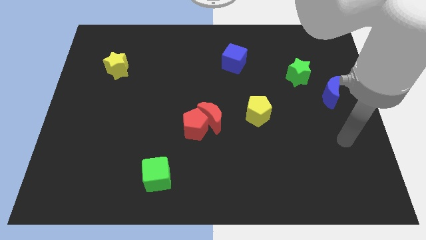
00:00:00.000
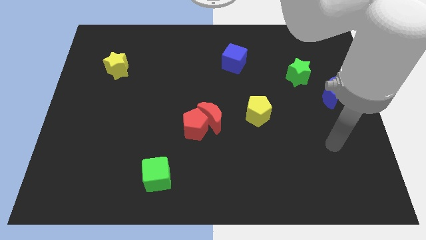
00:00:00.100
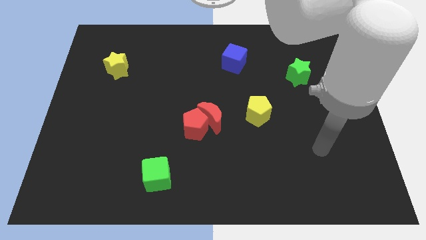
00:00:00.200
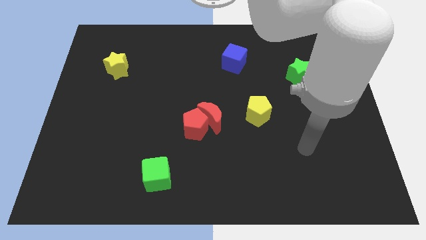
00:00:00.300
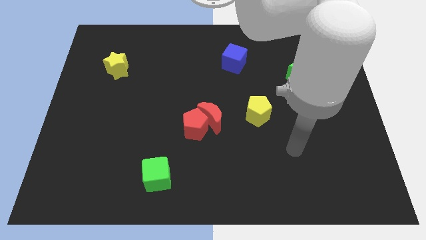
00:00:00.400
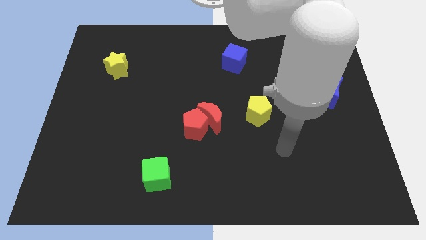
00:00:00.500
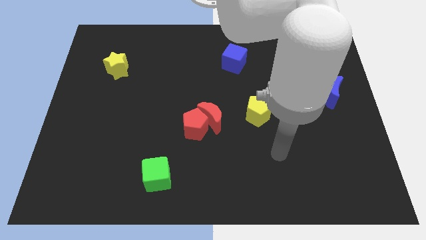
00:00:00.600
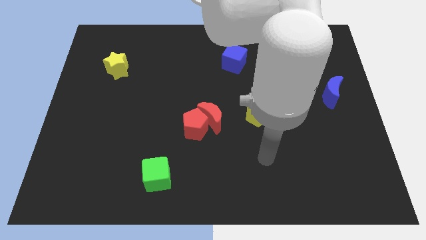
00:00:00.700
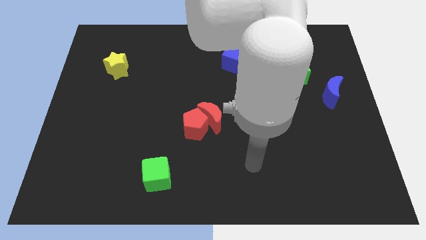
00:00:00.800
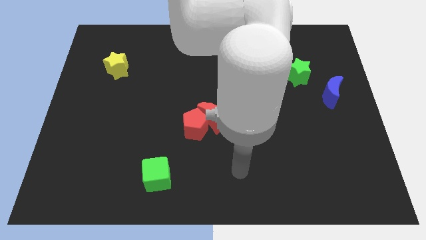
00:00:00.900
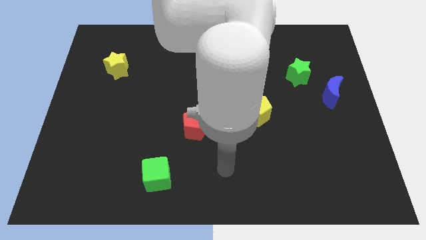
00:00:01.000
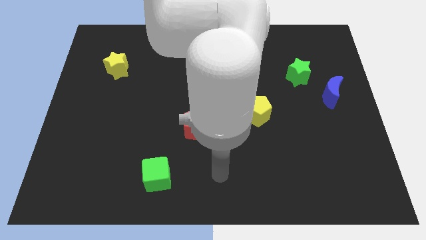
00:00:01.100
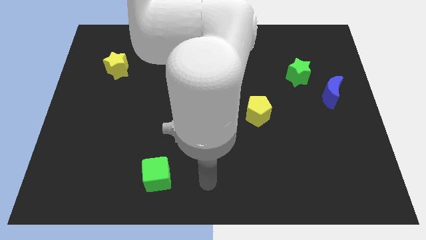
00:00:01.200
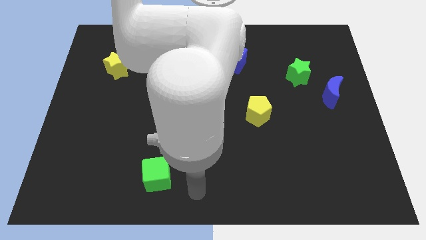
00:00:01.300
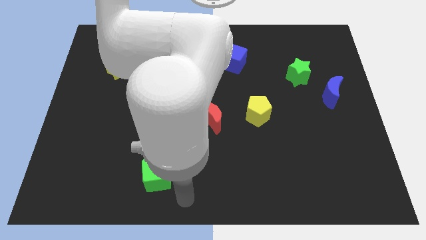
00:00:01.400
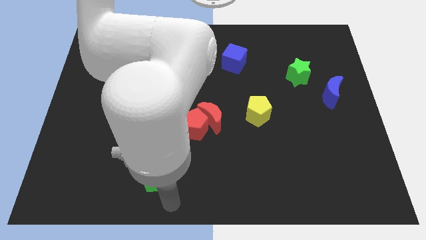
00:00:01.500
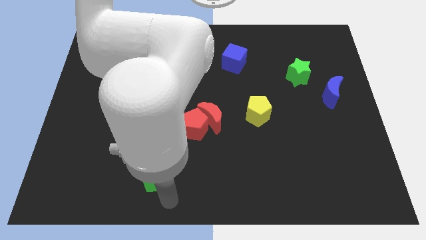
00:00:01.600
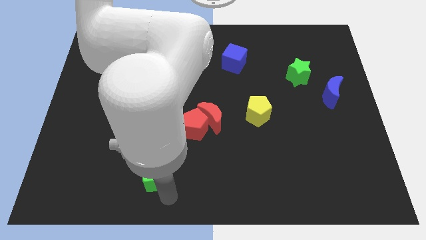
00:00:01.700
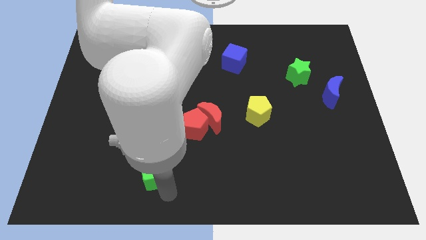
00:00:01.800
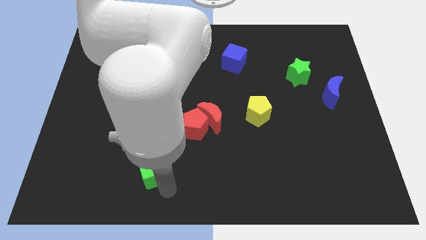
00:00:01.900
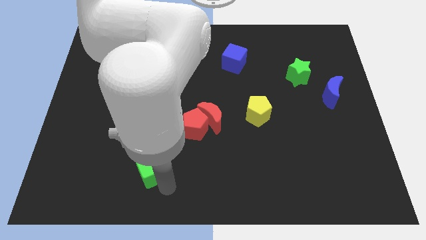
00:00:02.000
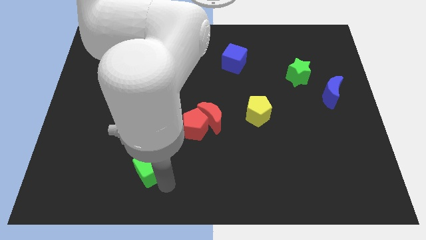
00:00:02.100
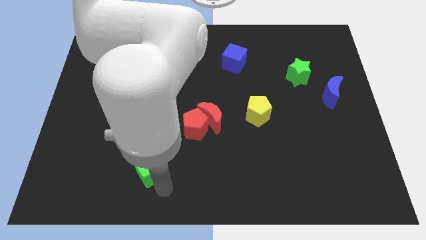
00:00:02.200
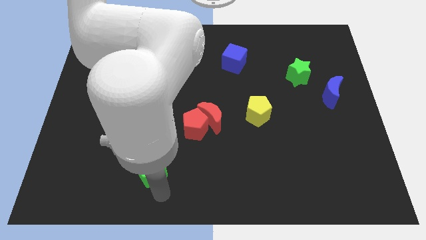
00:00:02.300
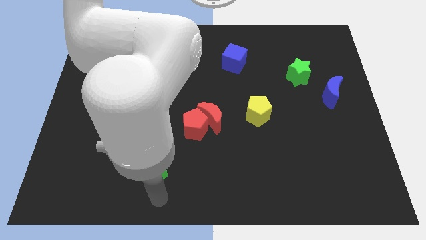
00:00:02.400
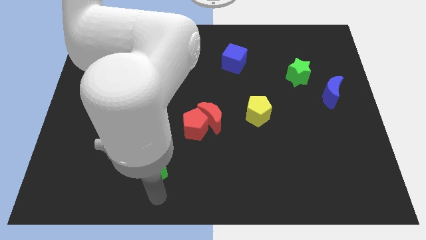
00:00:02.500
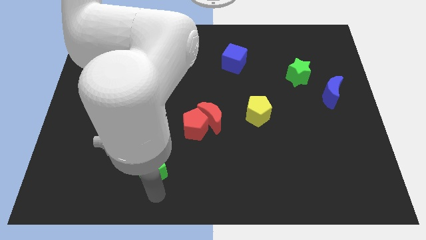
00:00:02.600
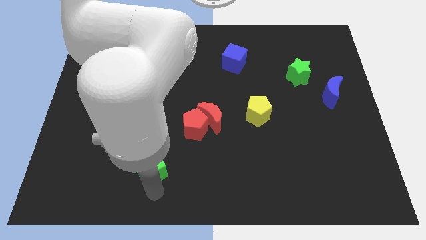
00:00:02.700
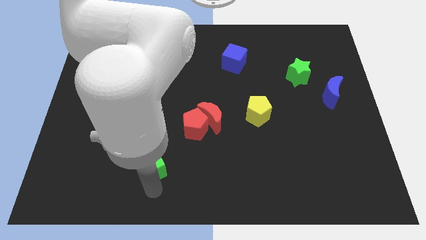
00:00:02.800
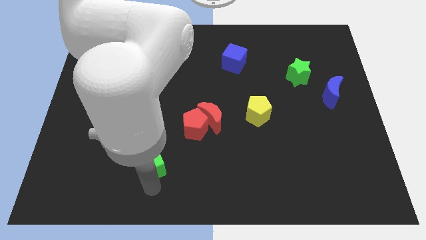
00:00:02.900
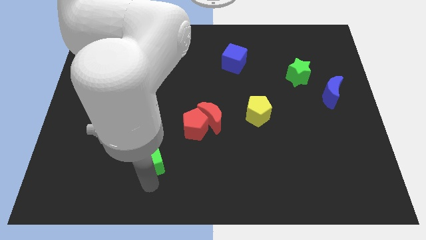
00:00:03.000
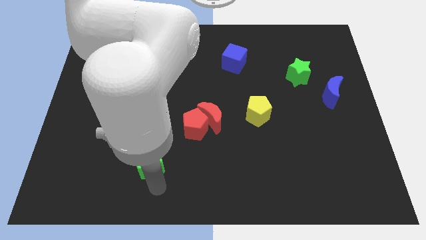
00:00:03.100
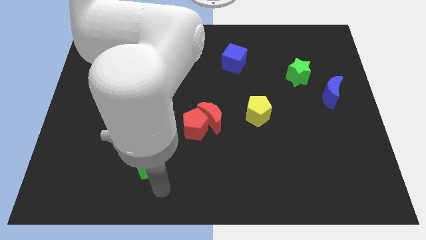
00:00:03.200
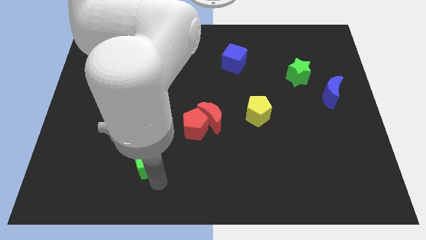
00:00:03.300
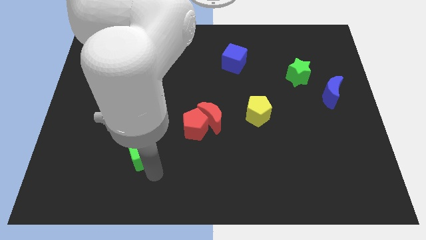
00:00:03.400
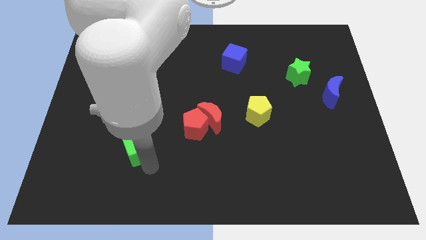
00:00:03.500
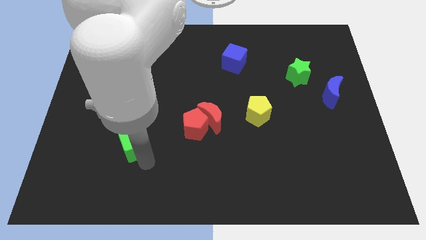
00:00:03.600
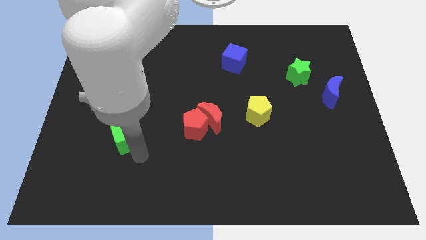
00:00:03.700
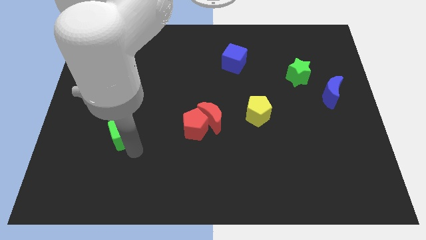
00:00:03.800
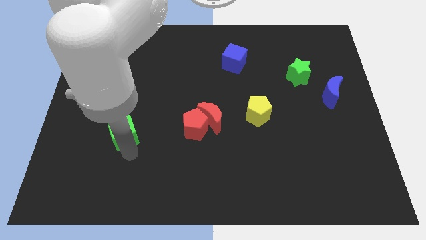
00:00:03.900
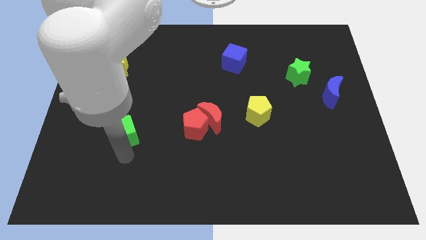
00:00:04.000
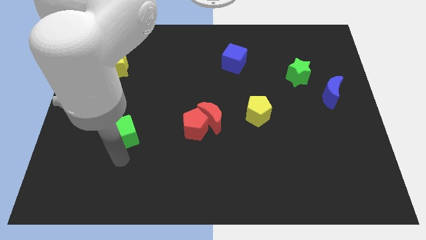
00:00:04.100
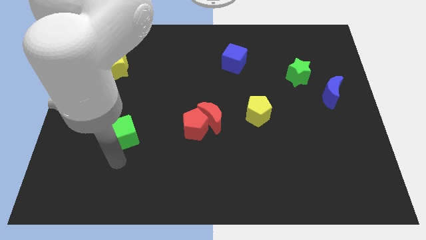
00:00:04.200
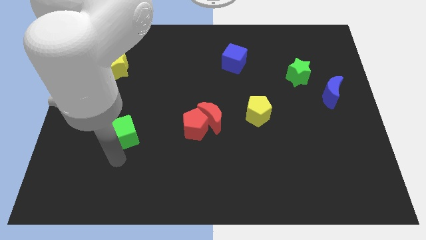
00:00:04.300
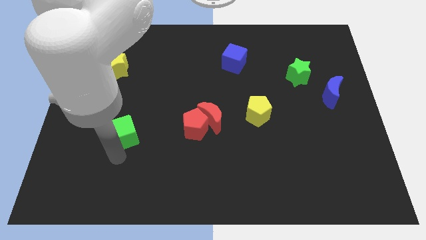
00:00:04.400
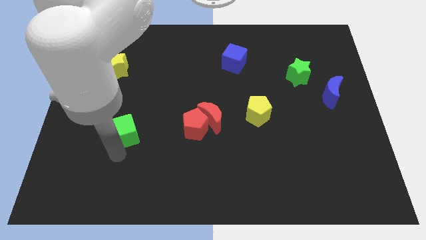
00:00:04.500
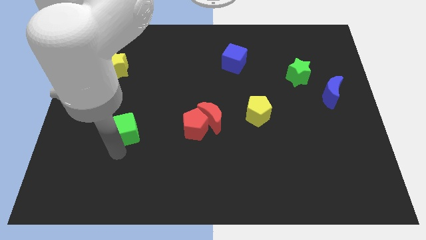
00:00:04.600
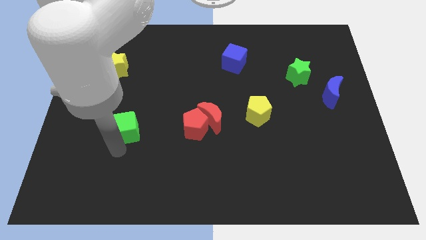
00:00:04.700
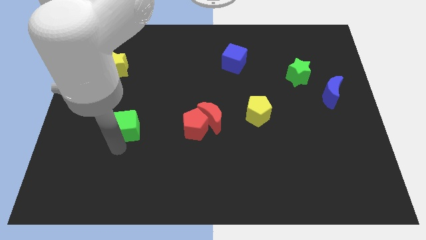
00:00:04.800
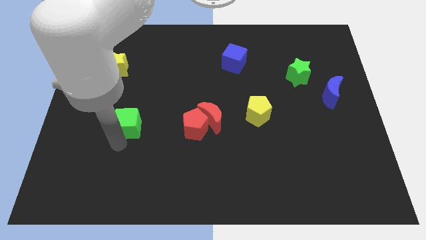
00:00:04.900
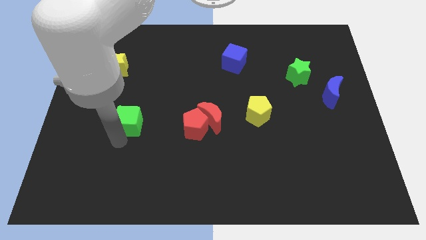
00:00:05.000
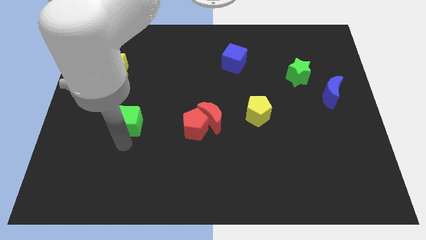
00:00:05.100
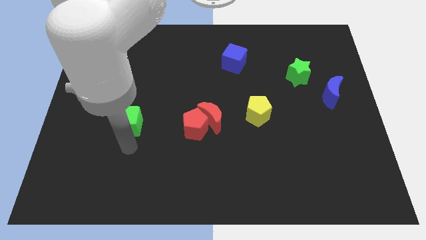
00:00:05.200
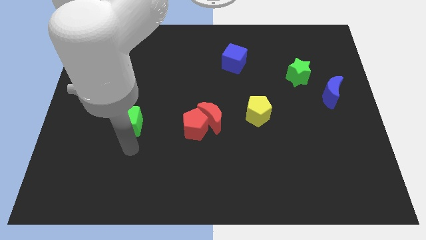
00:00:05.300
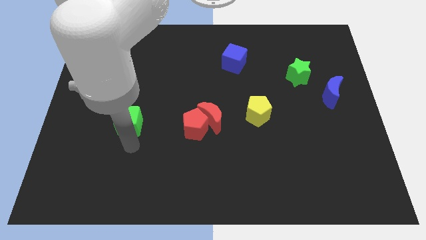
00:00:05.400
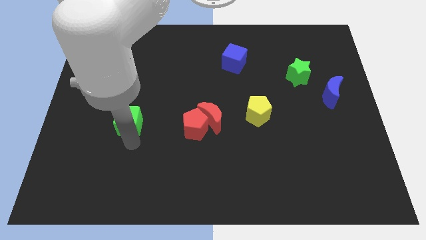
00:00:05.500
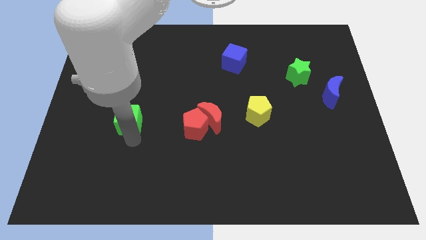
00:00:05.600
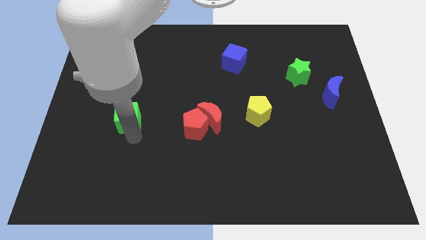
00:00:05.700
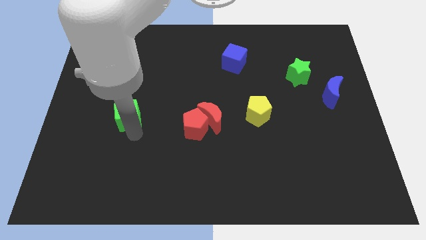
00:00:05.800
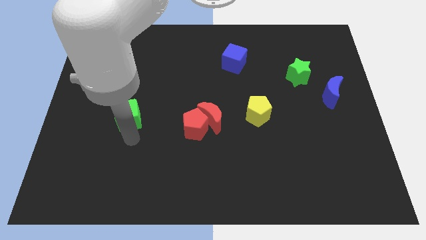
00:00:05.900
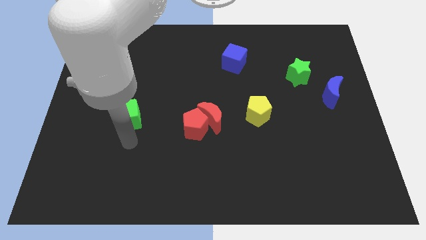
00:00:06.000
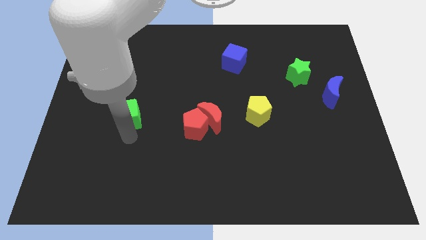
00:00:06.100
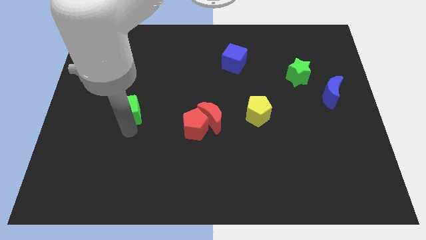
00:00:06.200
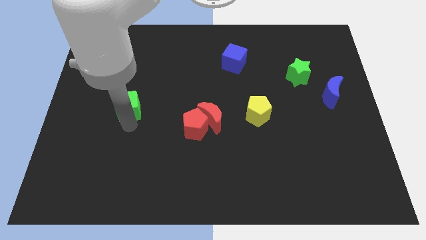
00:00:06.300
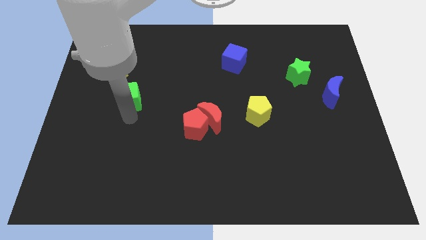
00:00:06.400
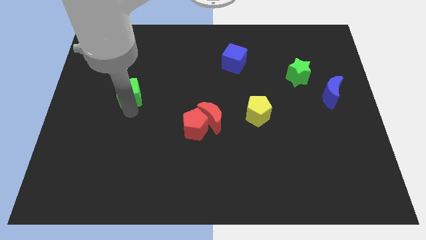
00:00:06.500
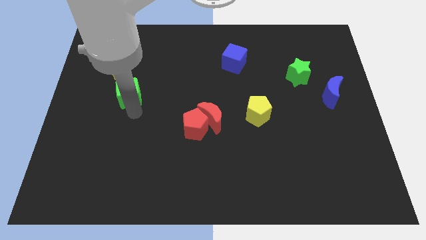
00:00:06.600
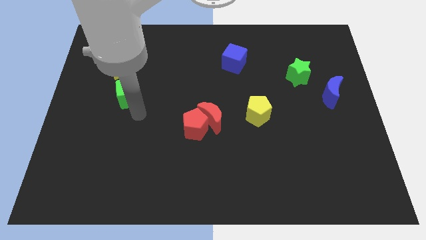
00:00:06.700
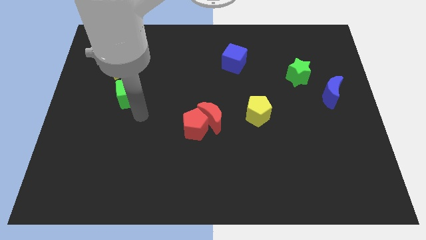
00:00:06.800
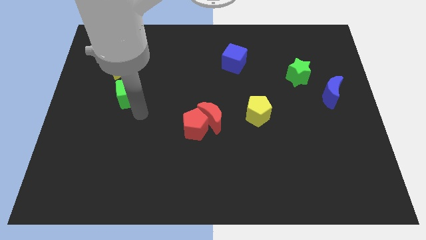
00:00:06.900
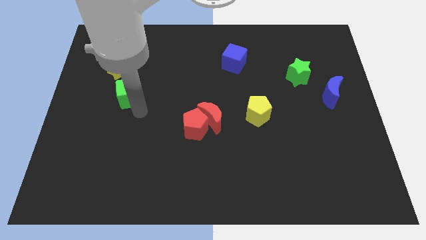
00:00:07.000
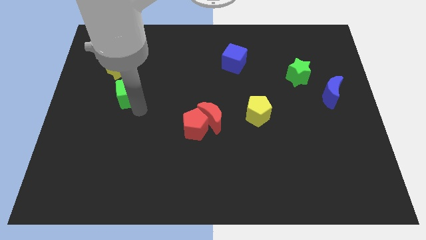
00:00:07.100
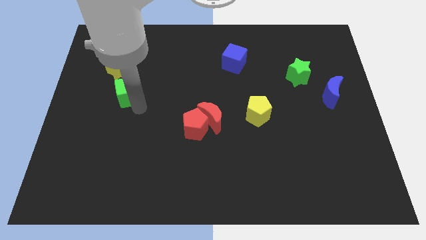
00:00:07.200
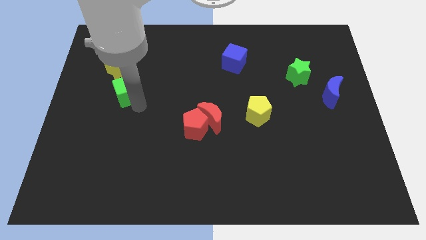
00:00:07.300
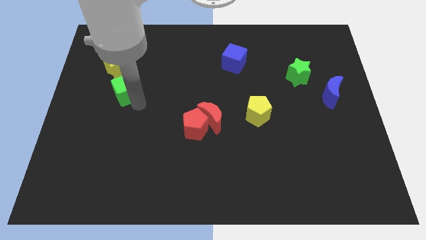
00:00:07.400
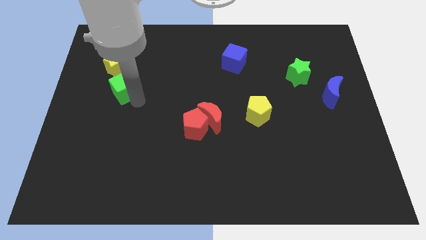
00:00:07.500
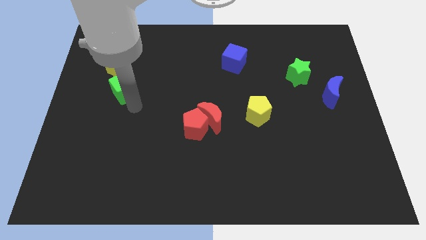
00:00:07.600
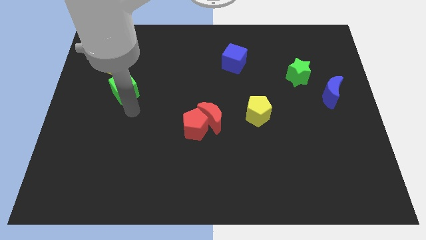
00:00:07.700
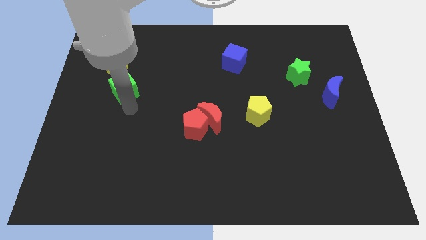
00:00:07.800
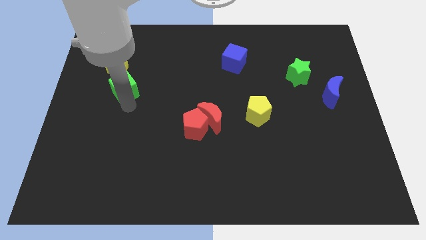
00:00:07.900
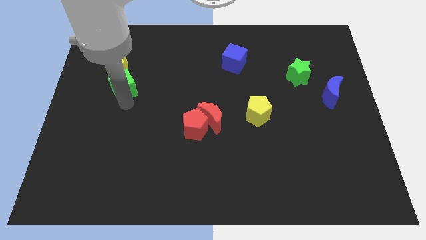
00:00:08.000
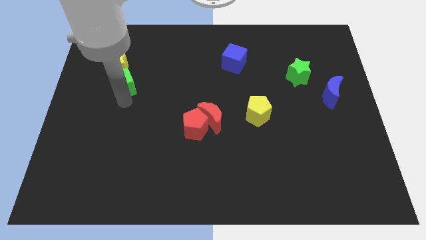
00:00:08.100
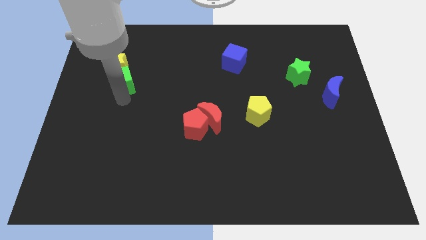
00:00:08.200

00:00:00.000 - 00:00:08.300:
push the green cube close to the yellow star
